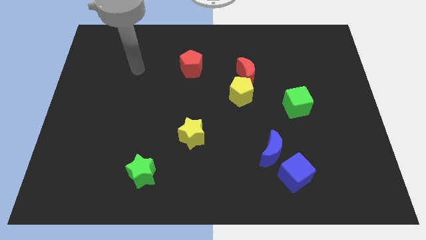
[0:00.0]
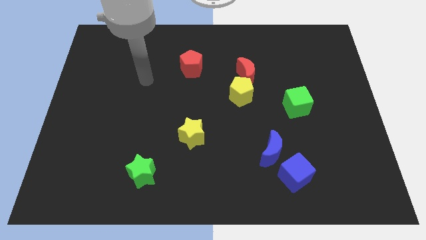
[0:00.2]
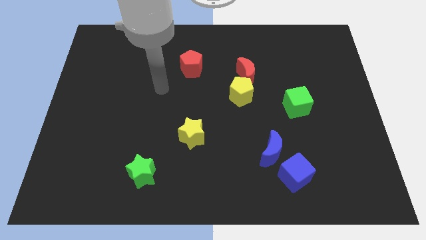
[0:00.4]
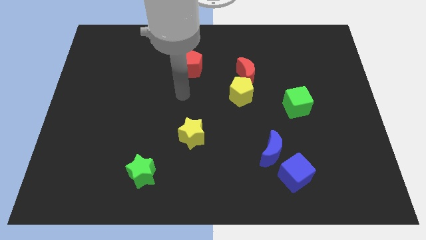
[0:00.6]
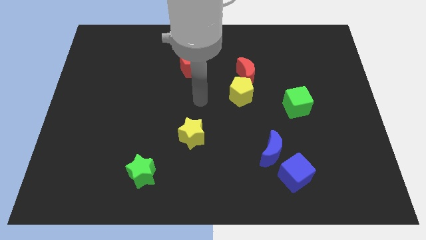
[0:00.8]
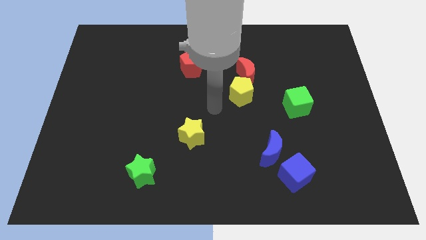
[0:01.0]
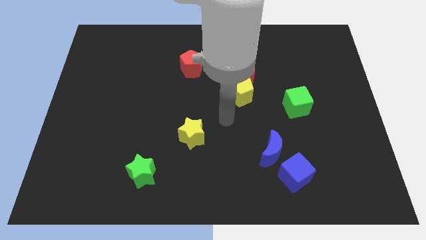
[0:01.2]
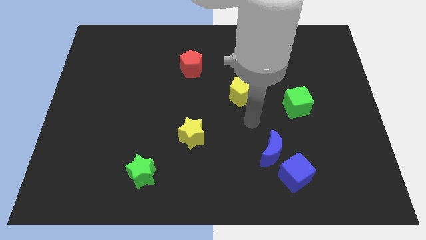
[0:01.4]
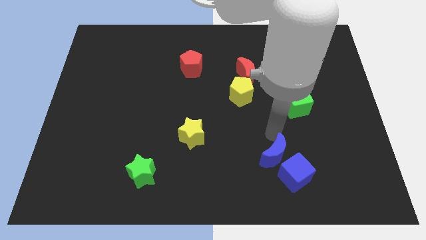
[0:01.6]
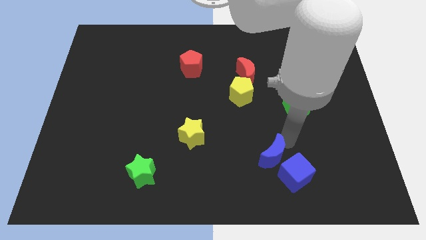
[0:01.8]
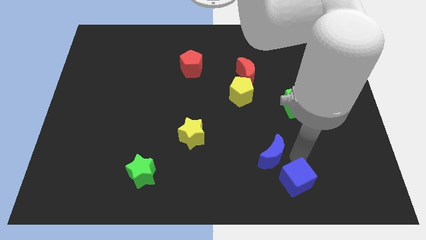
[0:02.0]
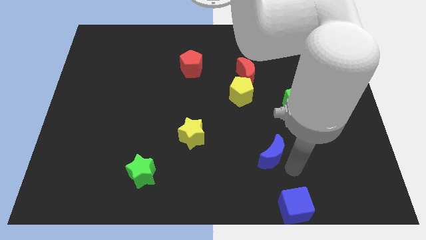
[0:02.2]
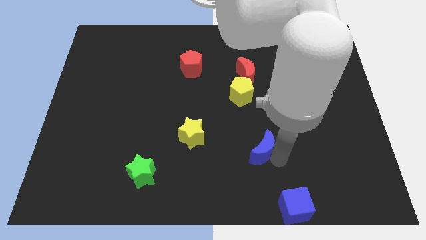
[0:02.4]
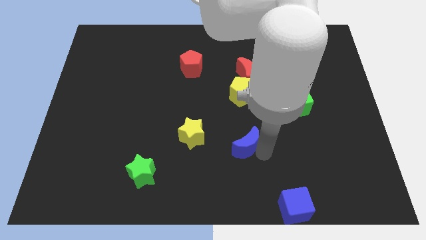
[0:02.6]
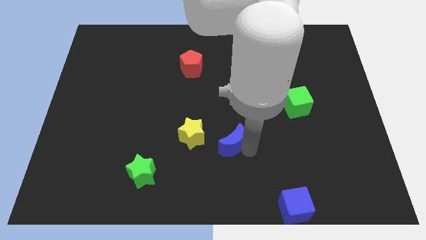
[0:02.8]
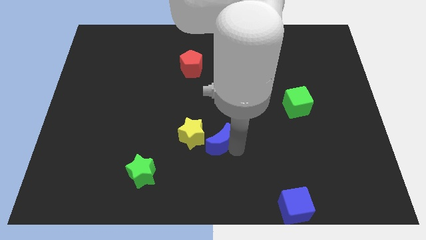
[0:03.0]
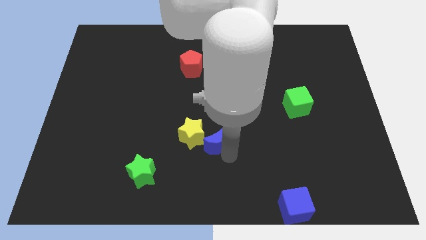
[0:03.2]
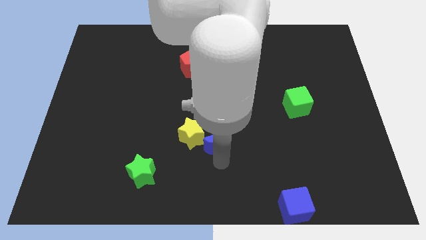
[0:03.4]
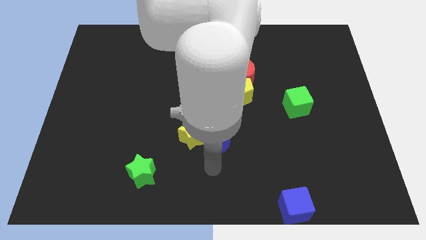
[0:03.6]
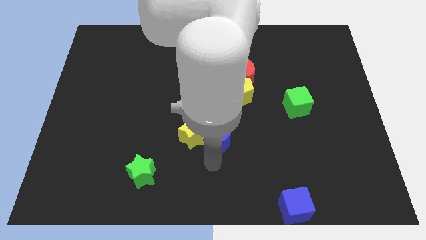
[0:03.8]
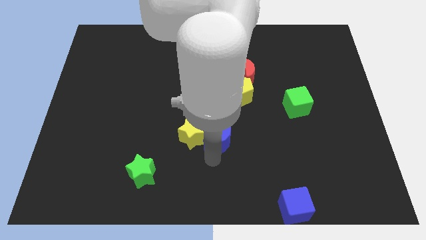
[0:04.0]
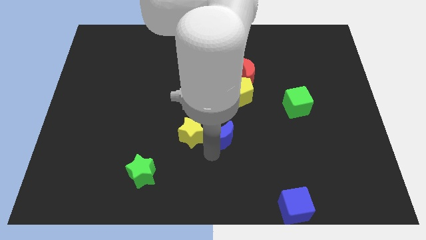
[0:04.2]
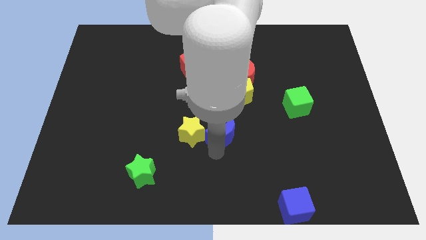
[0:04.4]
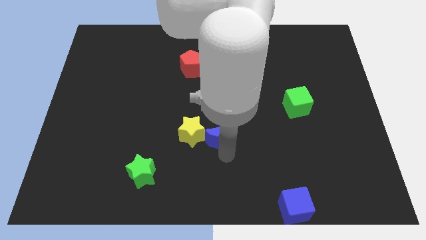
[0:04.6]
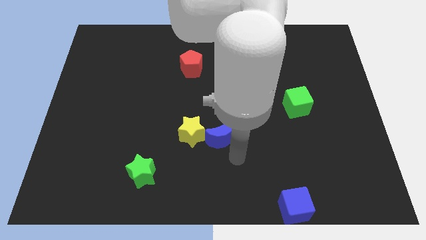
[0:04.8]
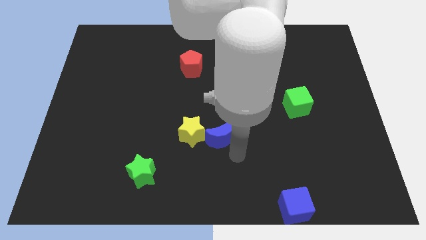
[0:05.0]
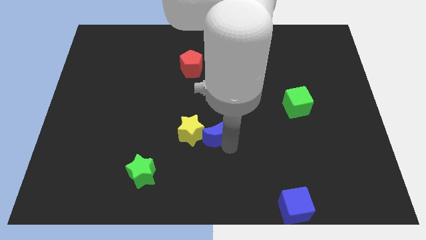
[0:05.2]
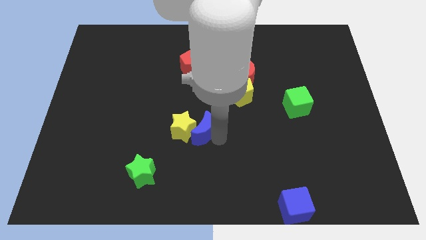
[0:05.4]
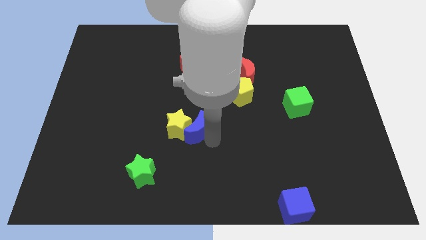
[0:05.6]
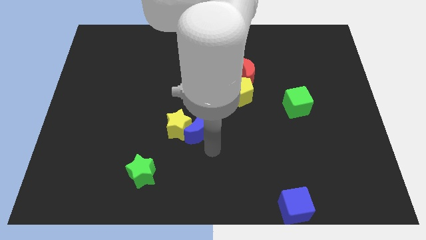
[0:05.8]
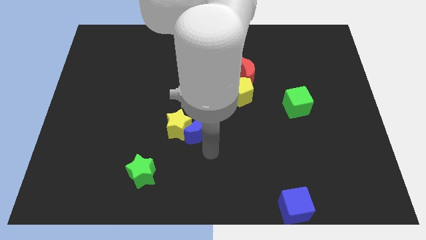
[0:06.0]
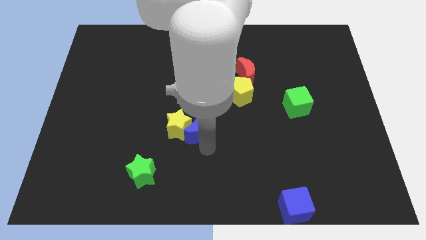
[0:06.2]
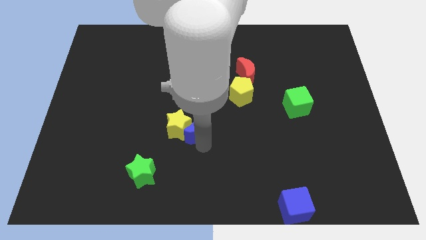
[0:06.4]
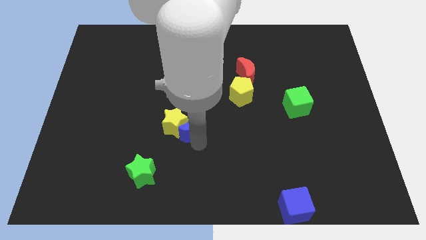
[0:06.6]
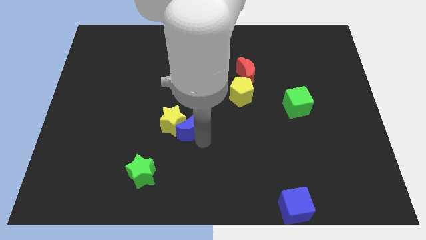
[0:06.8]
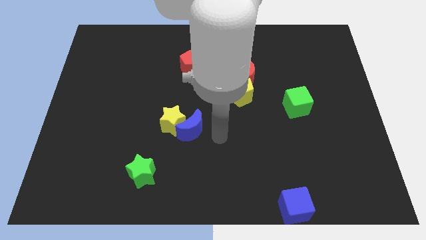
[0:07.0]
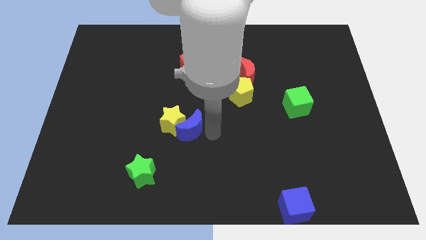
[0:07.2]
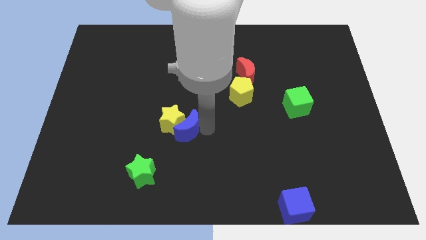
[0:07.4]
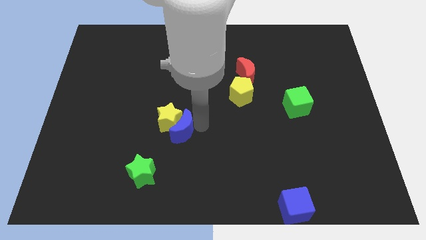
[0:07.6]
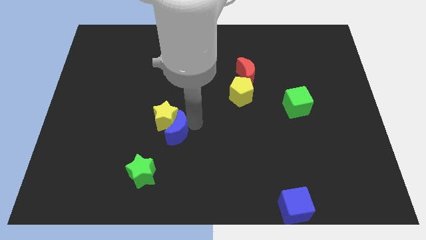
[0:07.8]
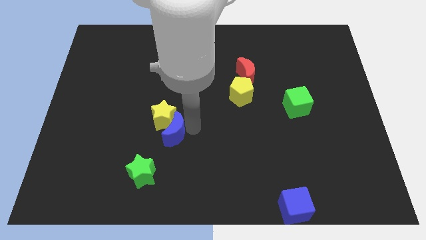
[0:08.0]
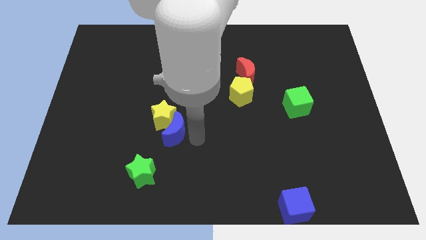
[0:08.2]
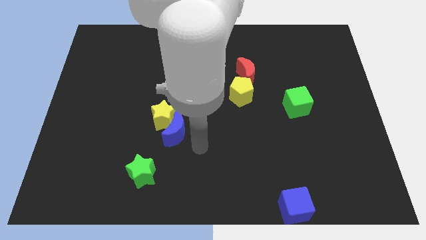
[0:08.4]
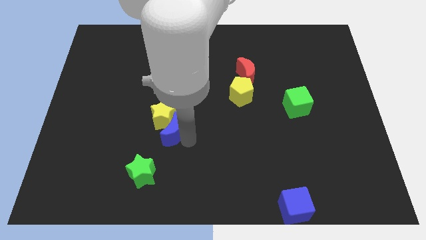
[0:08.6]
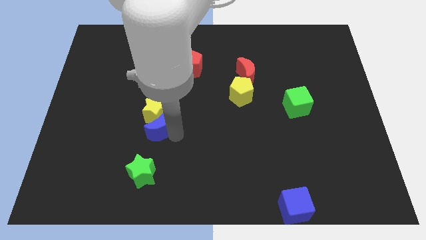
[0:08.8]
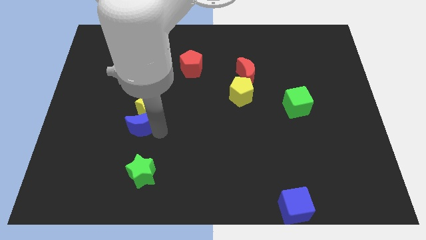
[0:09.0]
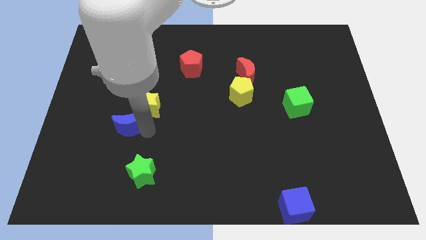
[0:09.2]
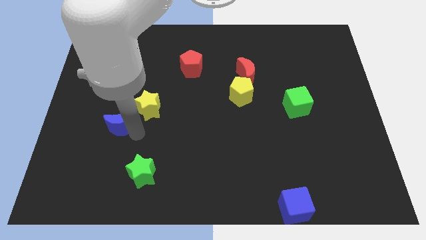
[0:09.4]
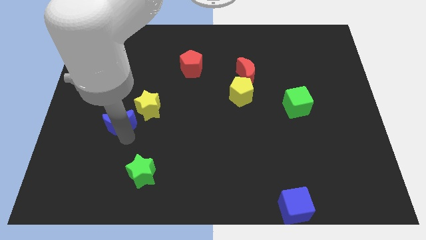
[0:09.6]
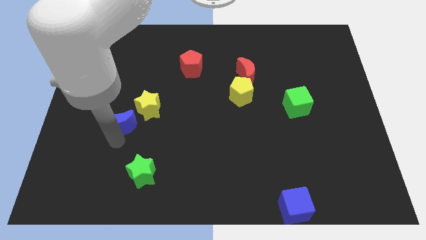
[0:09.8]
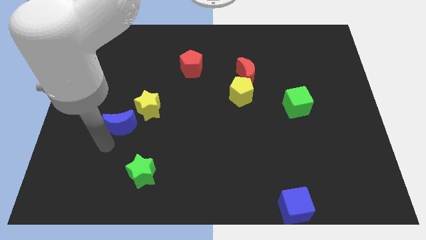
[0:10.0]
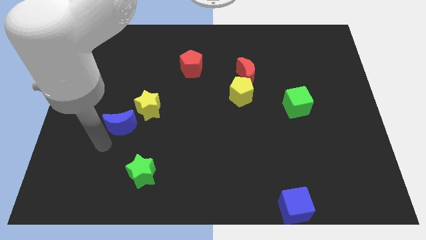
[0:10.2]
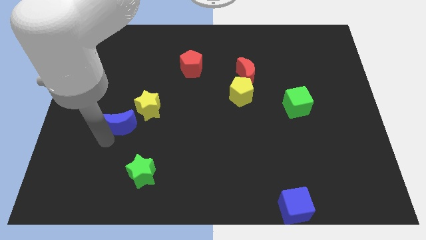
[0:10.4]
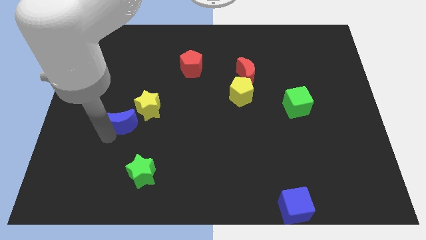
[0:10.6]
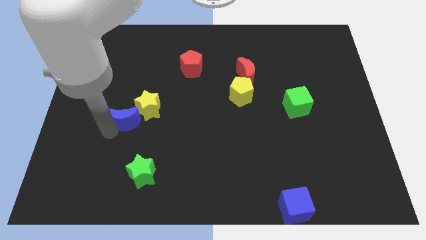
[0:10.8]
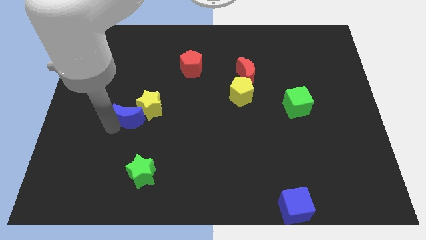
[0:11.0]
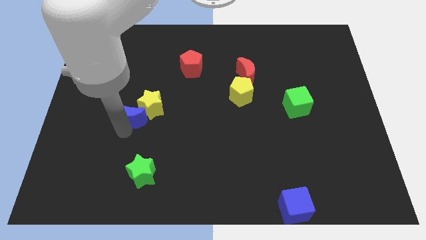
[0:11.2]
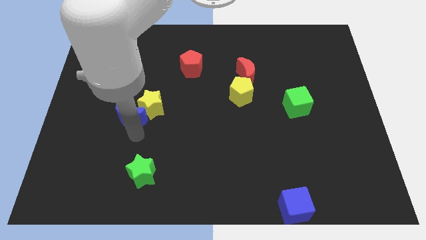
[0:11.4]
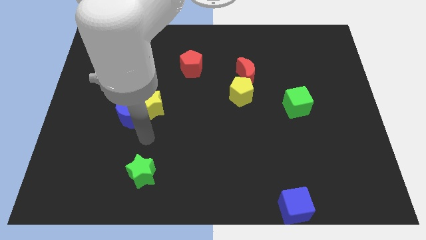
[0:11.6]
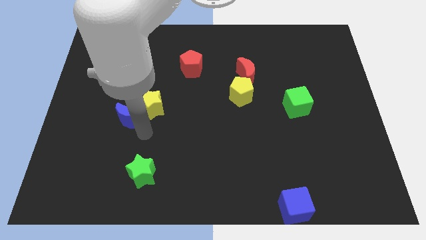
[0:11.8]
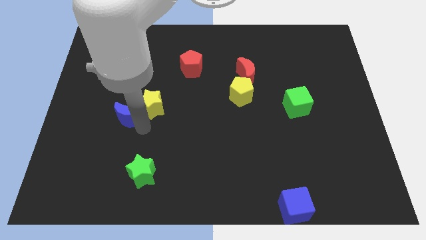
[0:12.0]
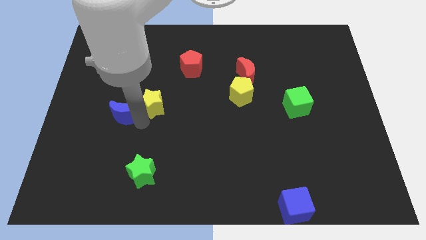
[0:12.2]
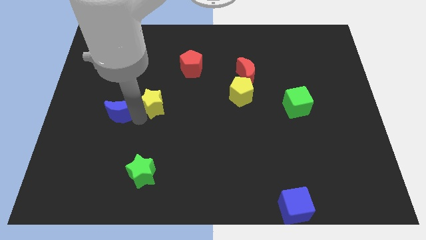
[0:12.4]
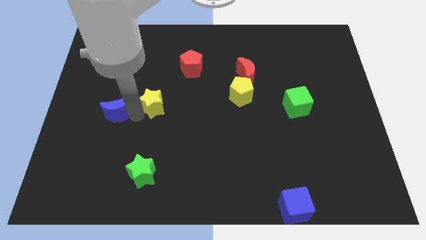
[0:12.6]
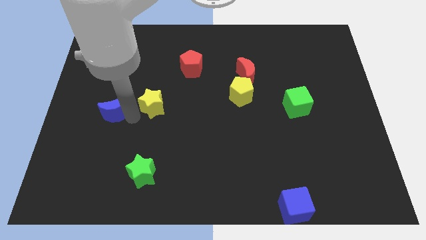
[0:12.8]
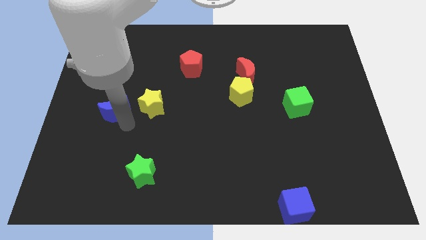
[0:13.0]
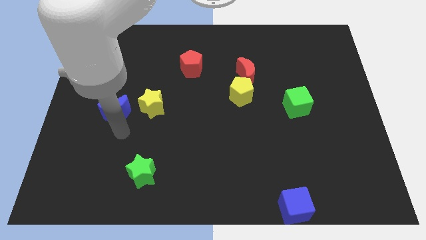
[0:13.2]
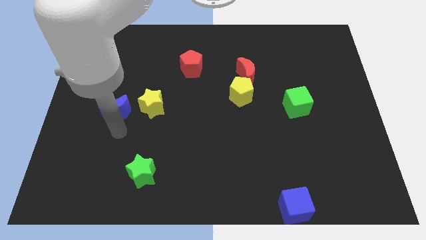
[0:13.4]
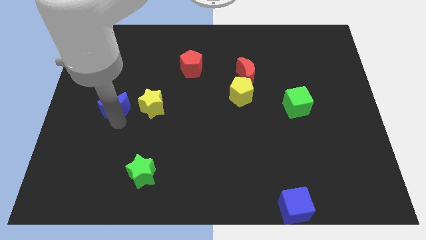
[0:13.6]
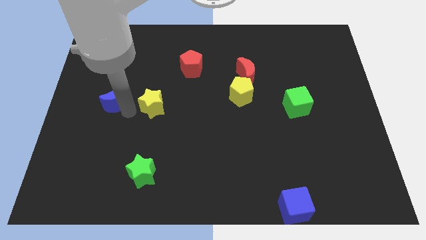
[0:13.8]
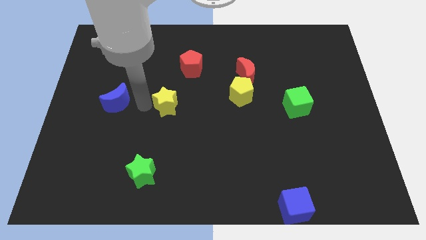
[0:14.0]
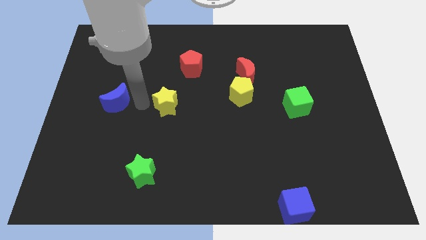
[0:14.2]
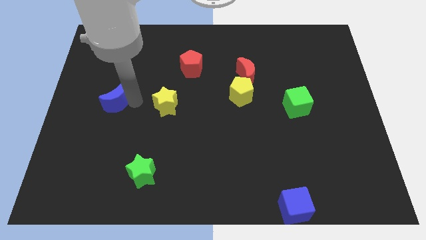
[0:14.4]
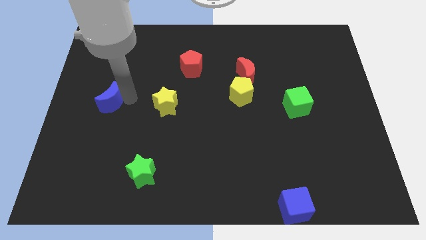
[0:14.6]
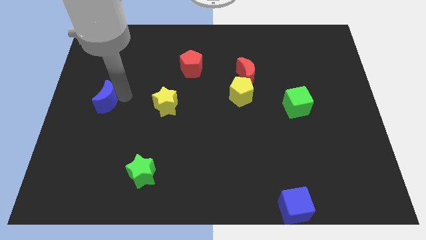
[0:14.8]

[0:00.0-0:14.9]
put the blue moon to the center left
